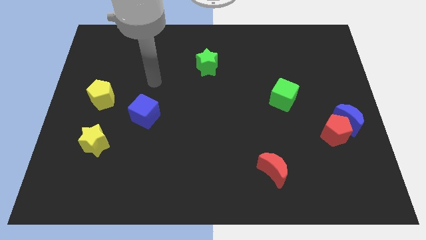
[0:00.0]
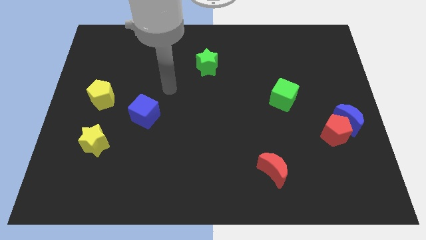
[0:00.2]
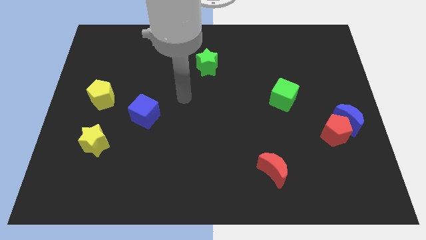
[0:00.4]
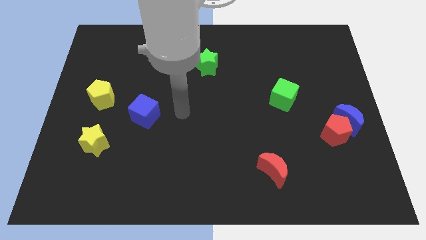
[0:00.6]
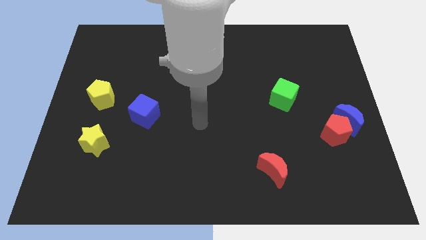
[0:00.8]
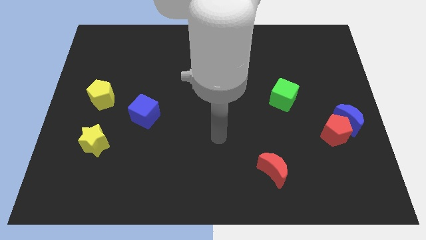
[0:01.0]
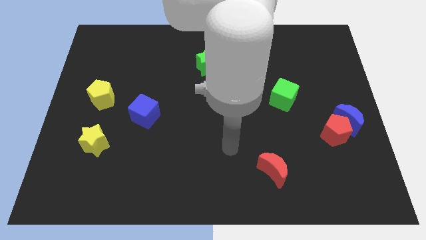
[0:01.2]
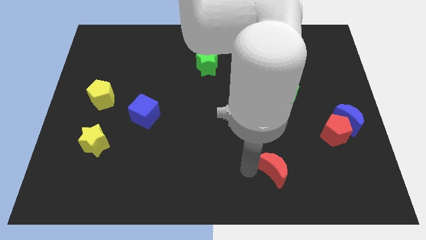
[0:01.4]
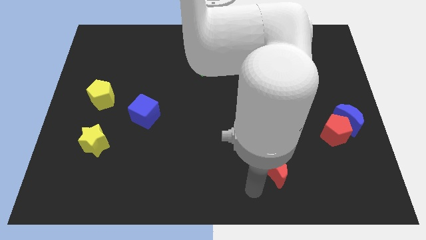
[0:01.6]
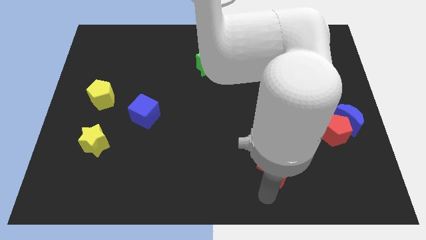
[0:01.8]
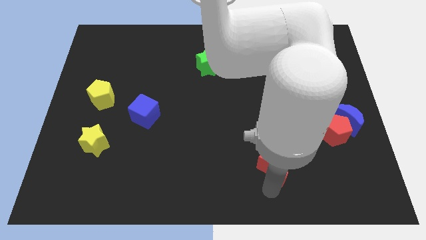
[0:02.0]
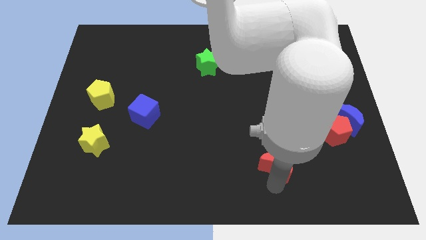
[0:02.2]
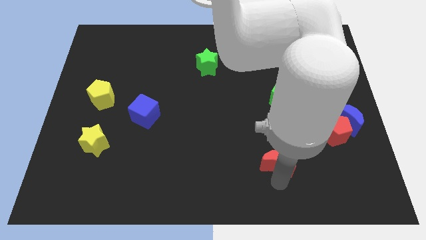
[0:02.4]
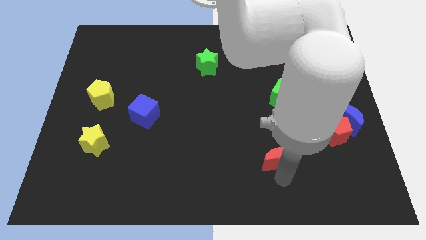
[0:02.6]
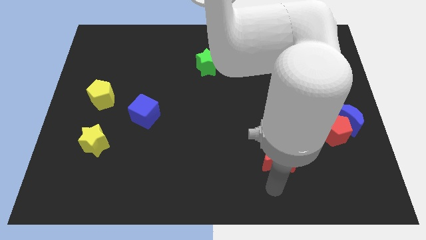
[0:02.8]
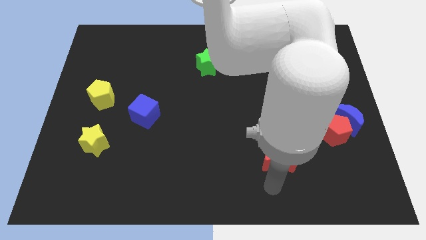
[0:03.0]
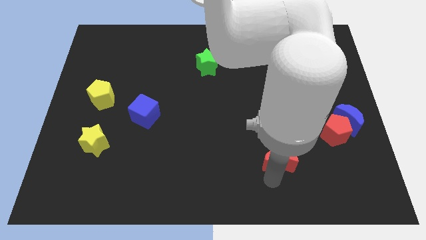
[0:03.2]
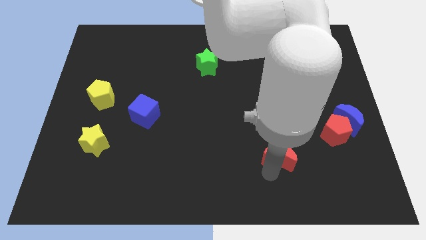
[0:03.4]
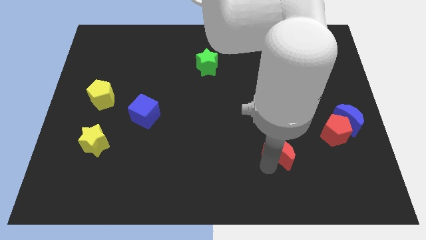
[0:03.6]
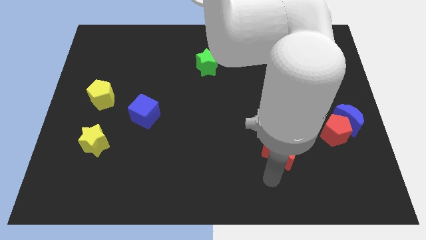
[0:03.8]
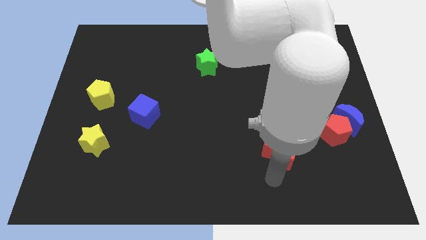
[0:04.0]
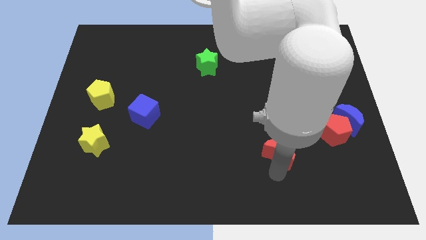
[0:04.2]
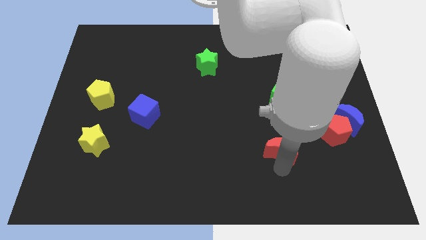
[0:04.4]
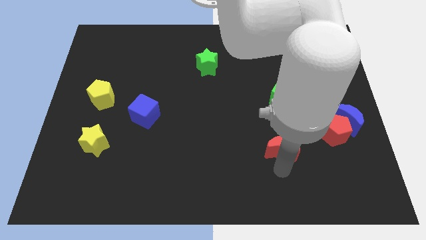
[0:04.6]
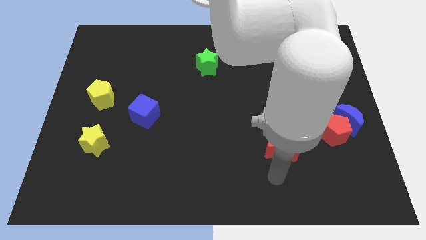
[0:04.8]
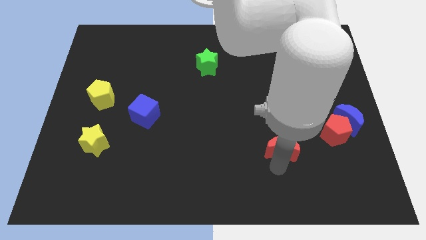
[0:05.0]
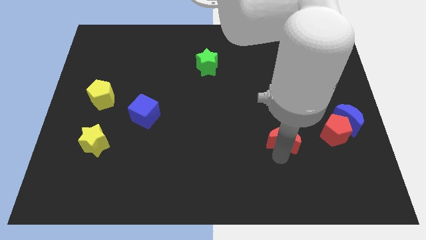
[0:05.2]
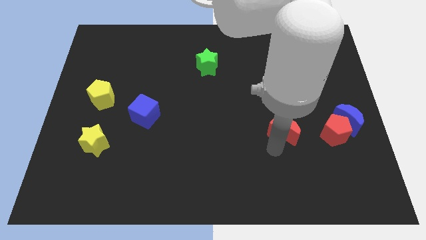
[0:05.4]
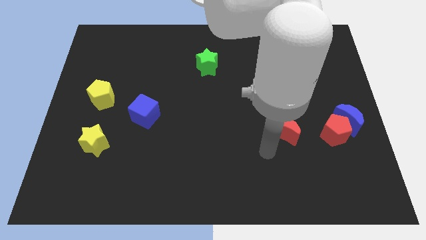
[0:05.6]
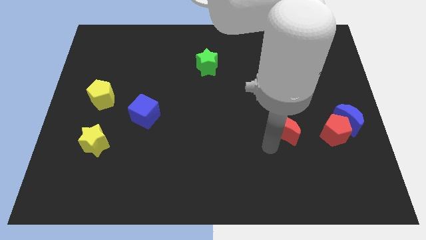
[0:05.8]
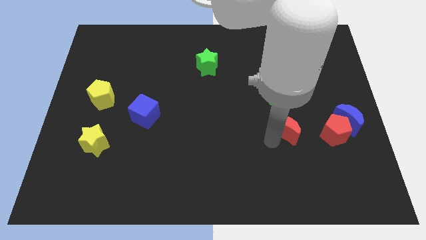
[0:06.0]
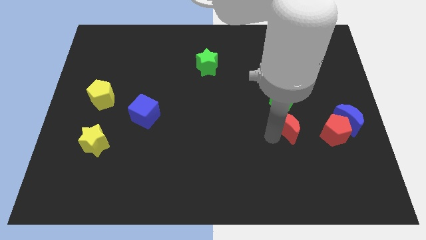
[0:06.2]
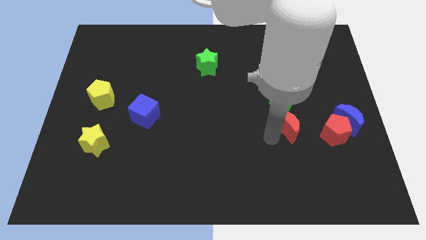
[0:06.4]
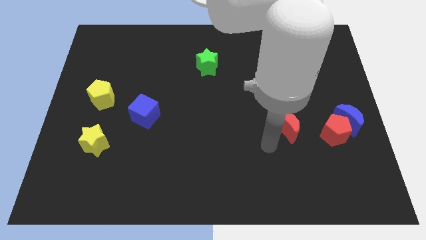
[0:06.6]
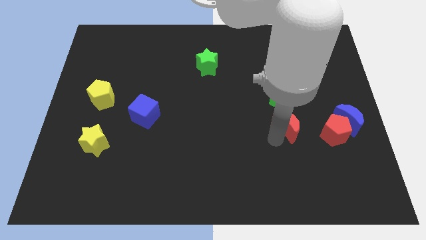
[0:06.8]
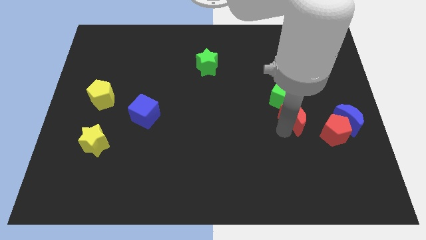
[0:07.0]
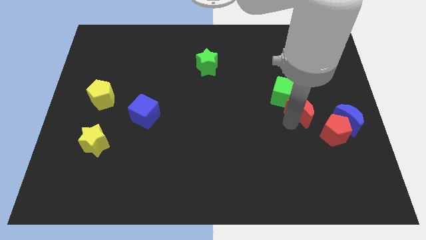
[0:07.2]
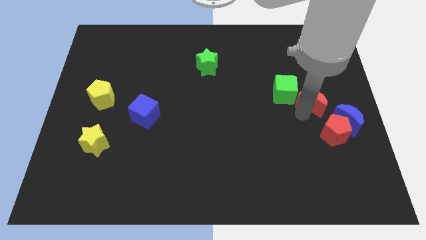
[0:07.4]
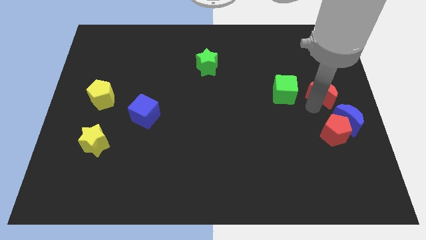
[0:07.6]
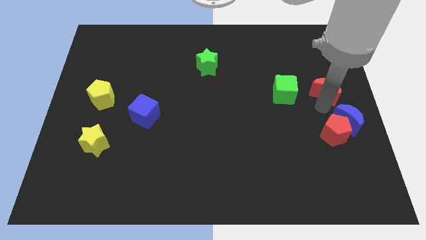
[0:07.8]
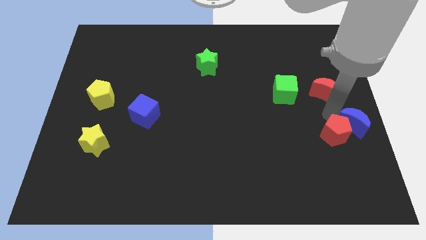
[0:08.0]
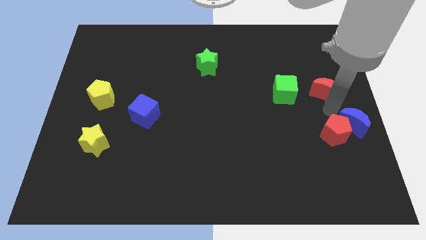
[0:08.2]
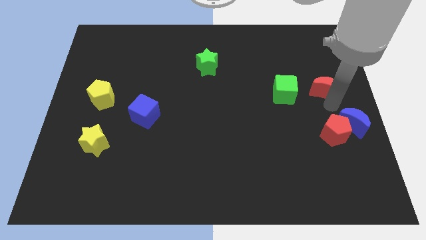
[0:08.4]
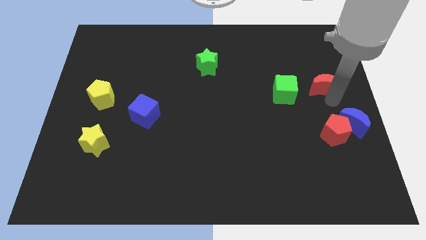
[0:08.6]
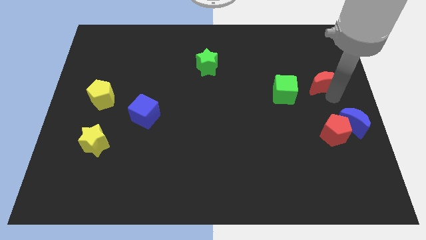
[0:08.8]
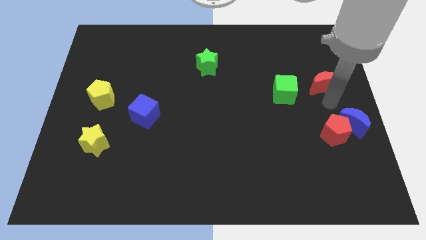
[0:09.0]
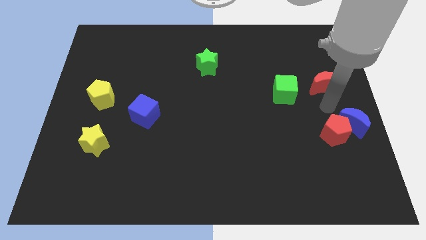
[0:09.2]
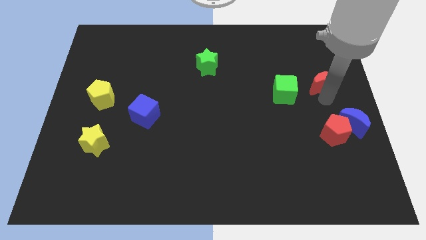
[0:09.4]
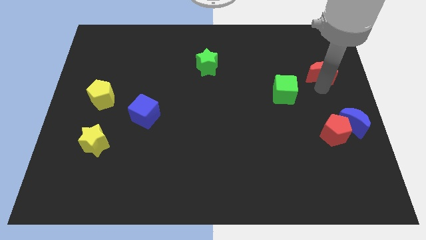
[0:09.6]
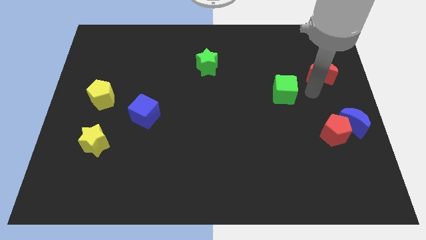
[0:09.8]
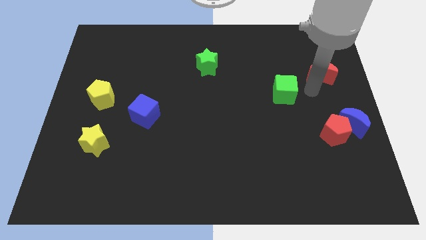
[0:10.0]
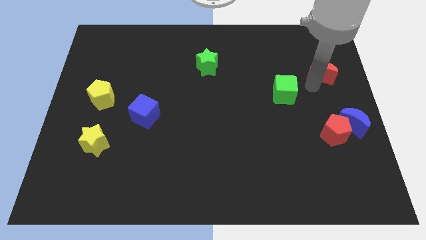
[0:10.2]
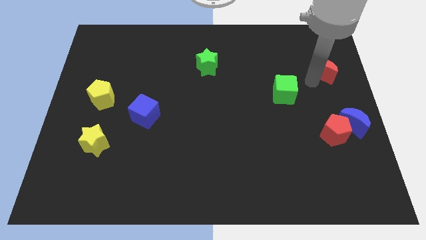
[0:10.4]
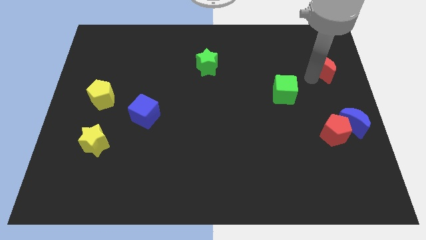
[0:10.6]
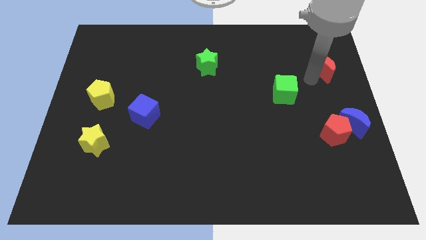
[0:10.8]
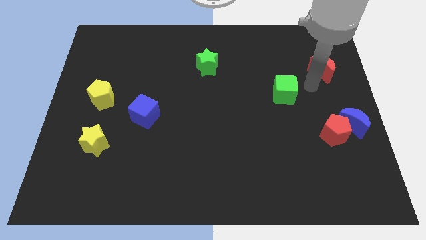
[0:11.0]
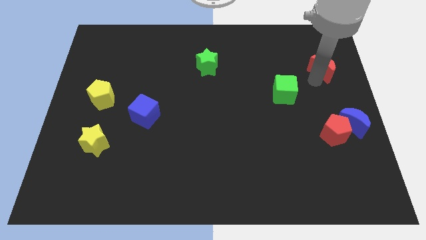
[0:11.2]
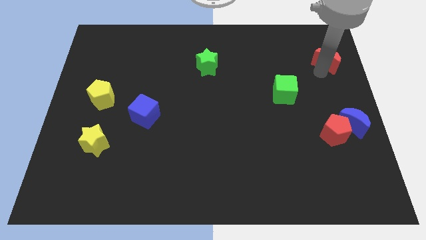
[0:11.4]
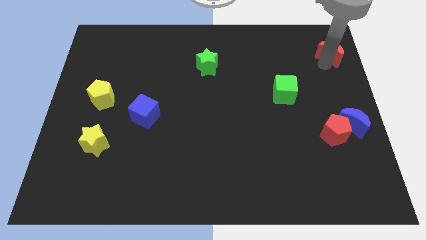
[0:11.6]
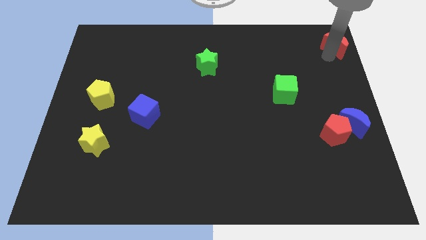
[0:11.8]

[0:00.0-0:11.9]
slide the red moon to the upper right corner

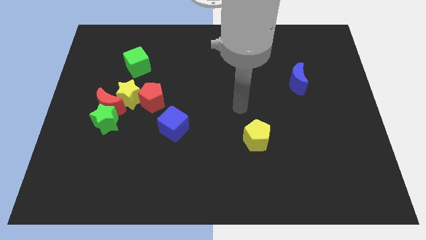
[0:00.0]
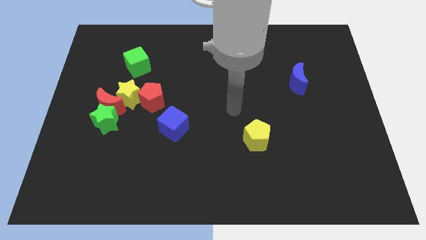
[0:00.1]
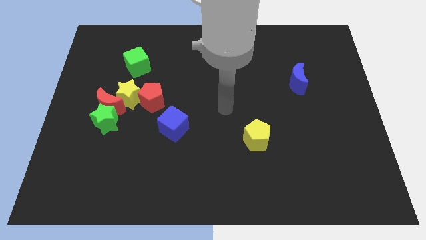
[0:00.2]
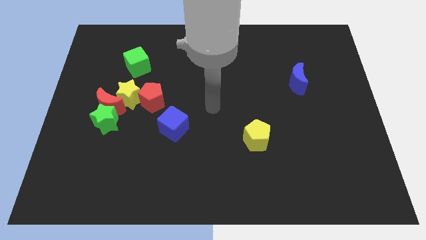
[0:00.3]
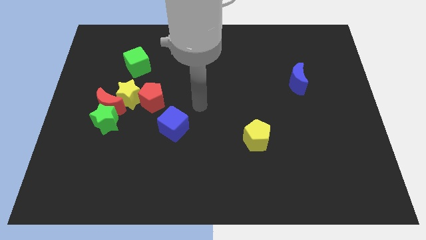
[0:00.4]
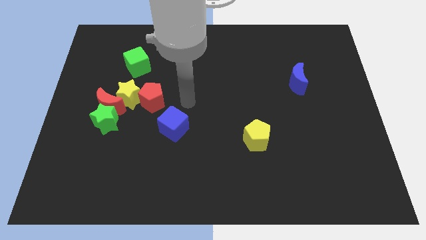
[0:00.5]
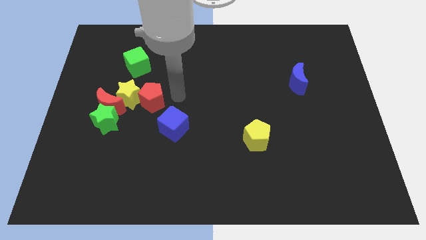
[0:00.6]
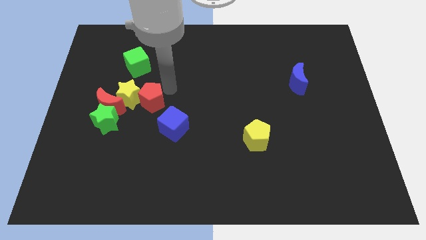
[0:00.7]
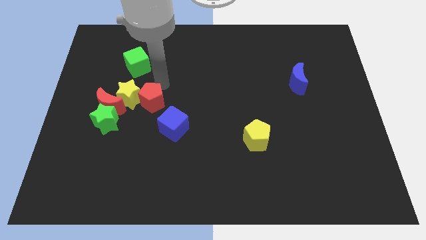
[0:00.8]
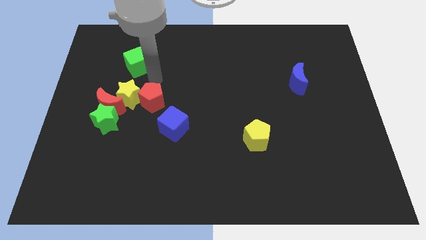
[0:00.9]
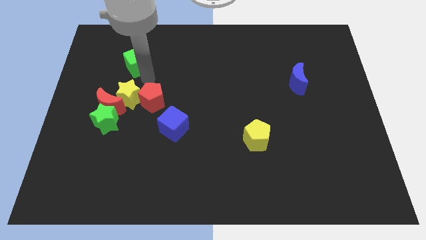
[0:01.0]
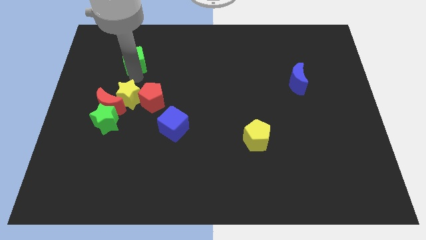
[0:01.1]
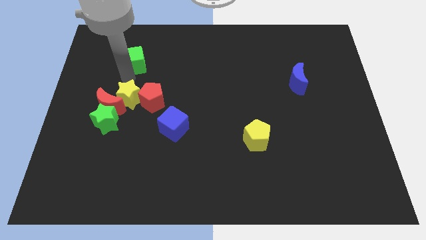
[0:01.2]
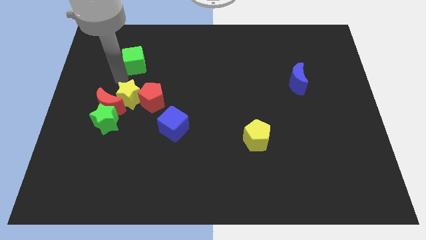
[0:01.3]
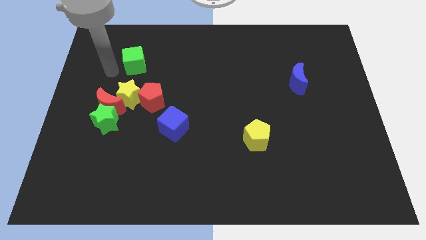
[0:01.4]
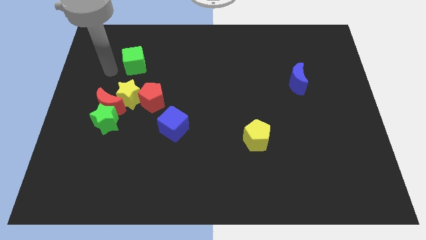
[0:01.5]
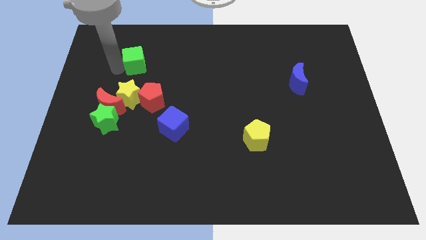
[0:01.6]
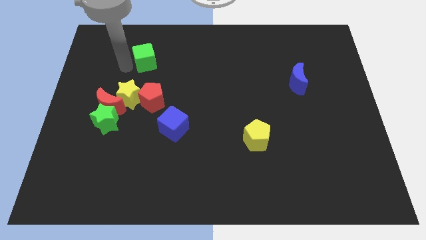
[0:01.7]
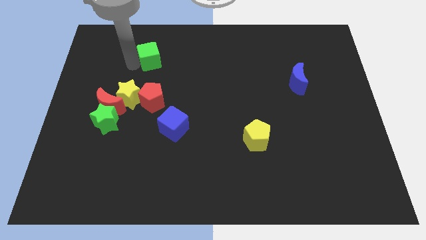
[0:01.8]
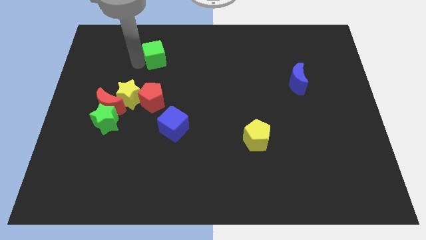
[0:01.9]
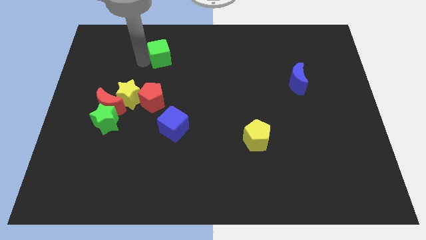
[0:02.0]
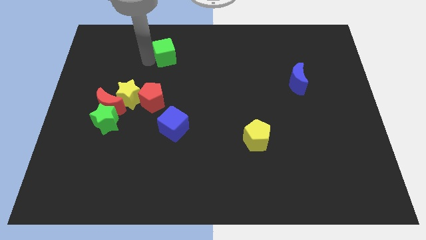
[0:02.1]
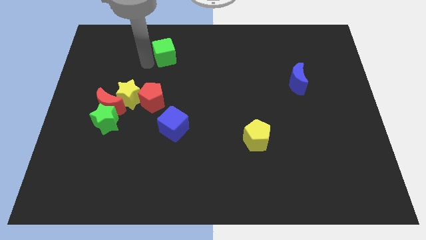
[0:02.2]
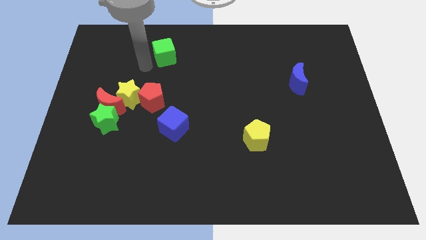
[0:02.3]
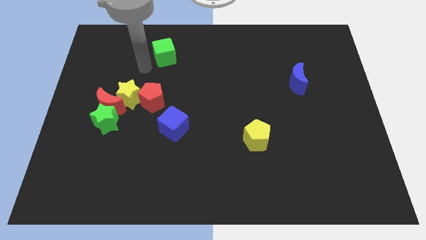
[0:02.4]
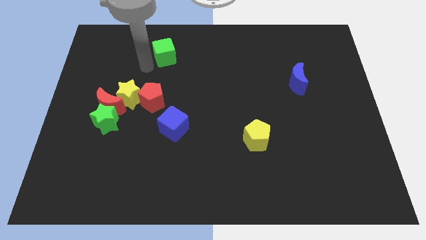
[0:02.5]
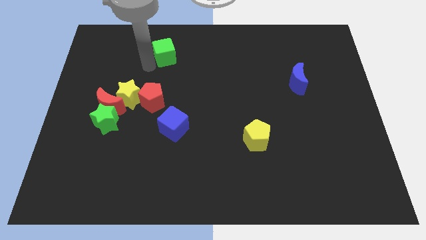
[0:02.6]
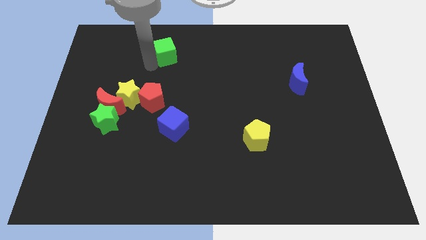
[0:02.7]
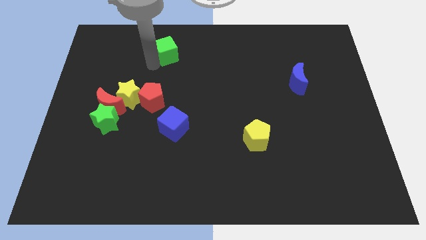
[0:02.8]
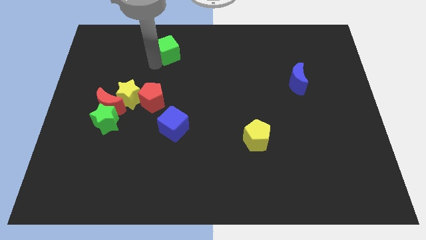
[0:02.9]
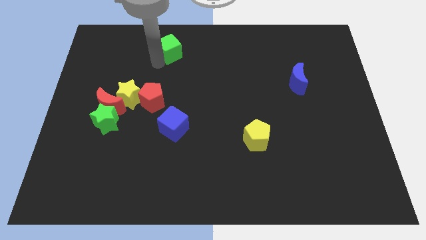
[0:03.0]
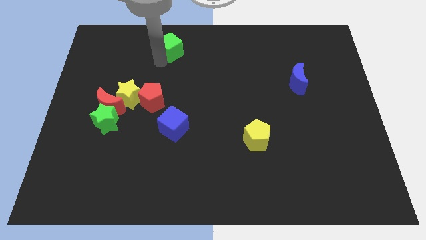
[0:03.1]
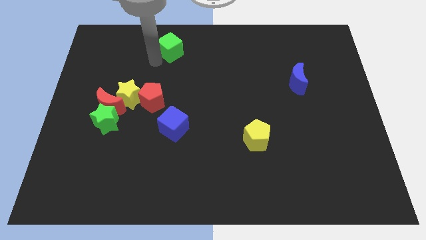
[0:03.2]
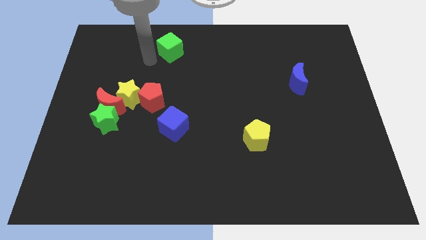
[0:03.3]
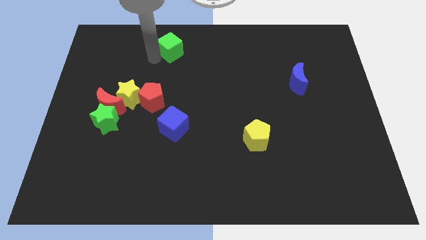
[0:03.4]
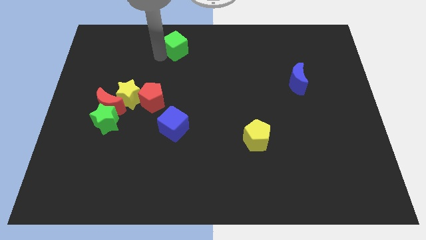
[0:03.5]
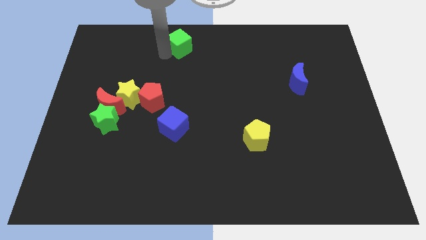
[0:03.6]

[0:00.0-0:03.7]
push the green cube to the top
